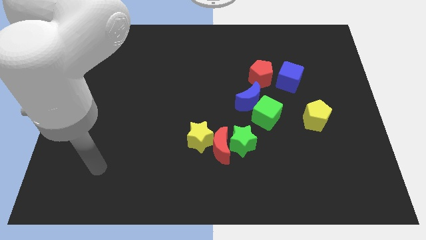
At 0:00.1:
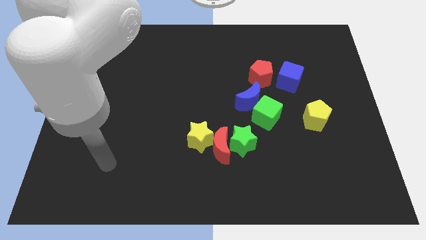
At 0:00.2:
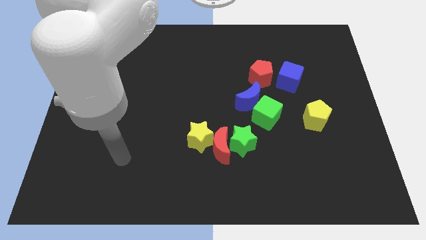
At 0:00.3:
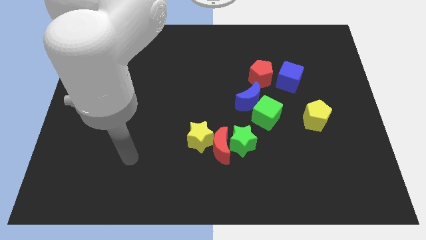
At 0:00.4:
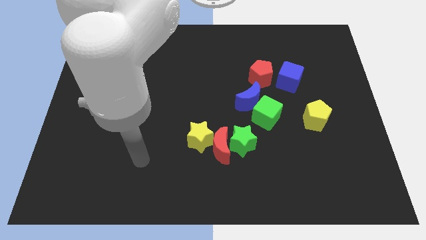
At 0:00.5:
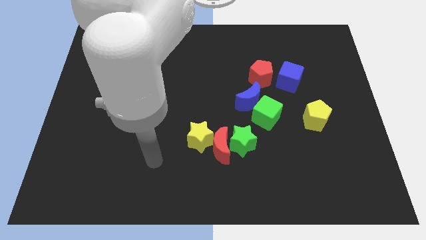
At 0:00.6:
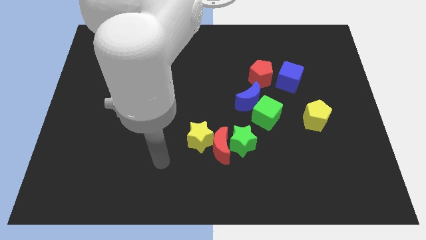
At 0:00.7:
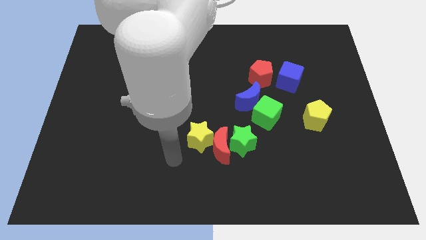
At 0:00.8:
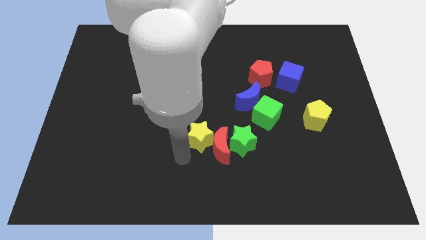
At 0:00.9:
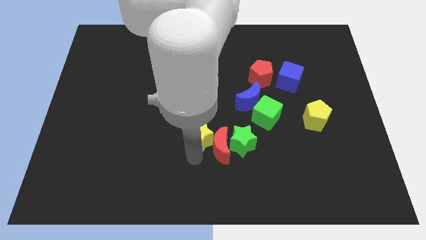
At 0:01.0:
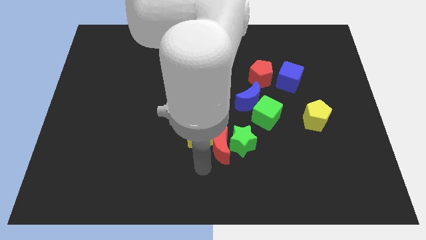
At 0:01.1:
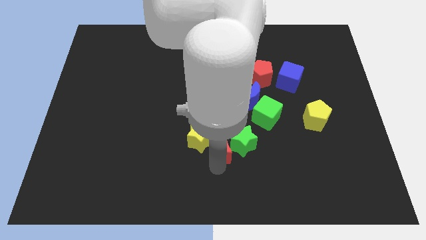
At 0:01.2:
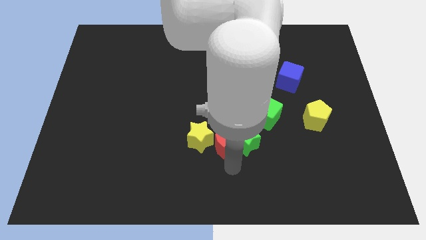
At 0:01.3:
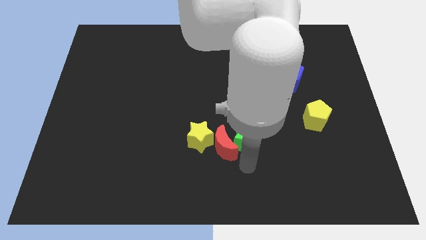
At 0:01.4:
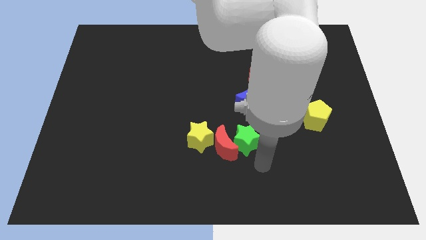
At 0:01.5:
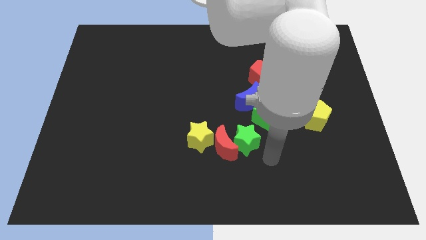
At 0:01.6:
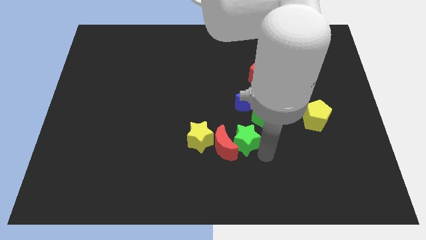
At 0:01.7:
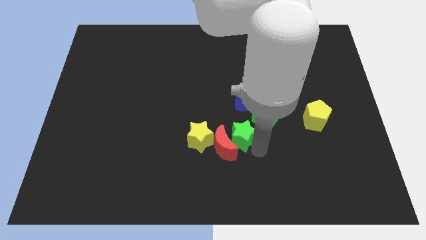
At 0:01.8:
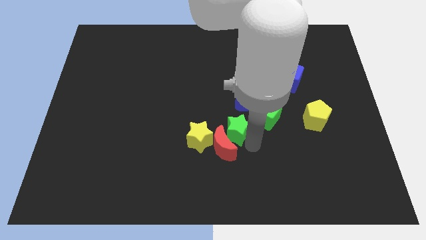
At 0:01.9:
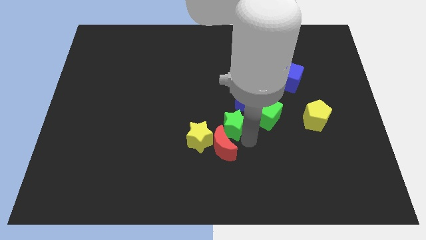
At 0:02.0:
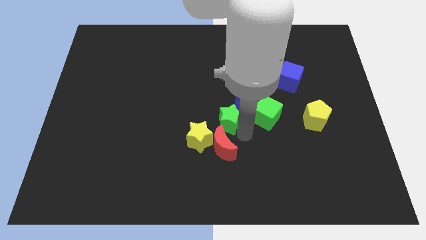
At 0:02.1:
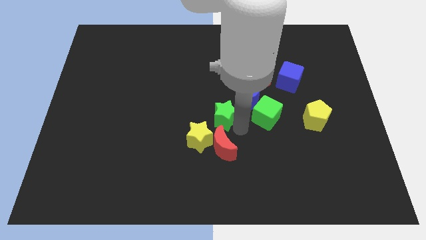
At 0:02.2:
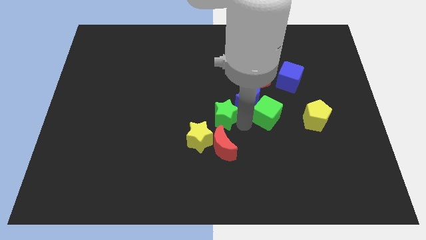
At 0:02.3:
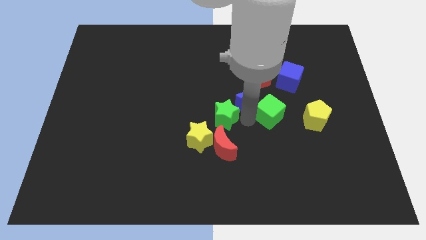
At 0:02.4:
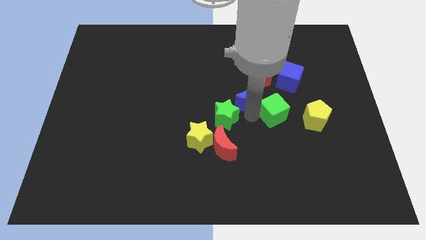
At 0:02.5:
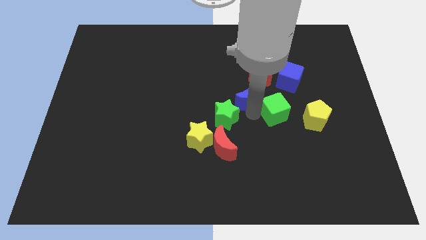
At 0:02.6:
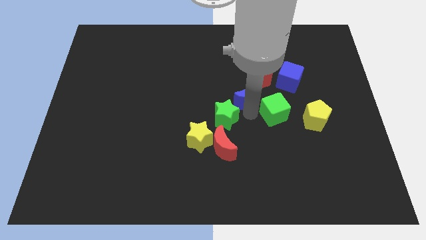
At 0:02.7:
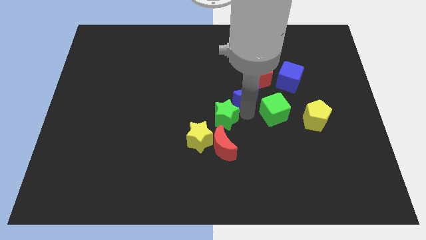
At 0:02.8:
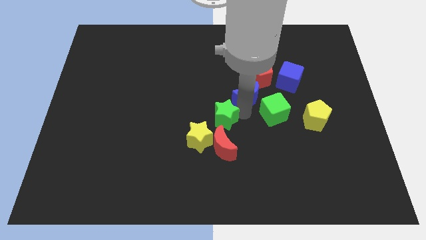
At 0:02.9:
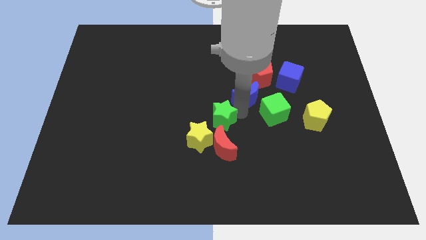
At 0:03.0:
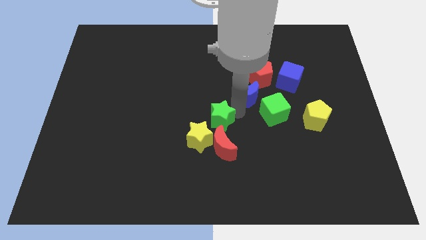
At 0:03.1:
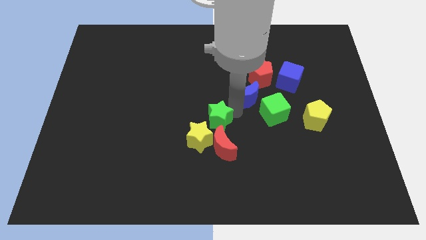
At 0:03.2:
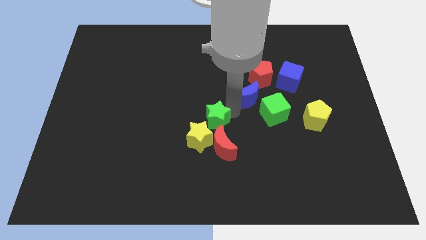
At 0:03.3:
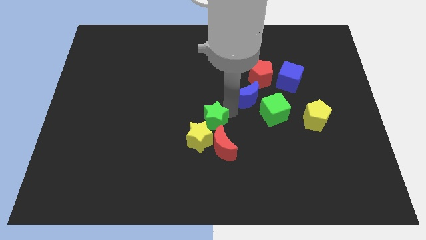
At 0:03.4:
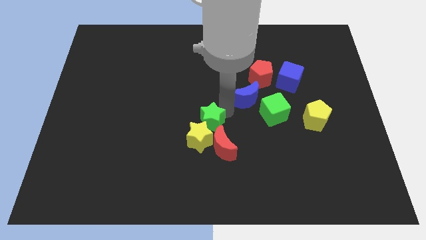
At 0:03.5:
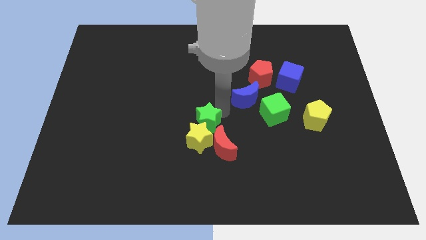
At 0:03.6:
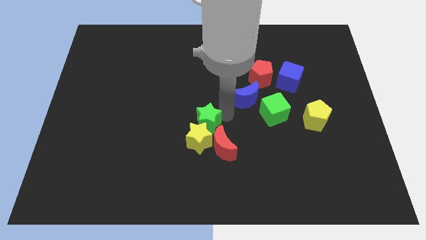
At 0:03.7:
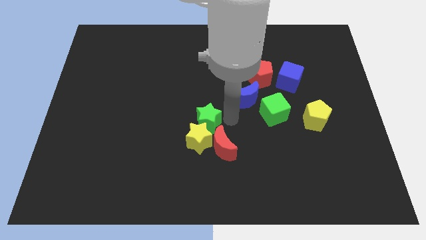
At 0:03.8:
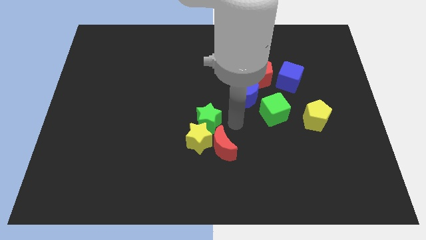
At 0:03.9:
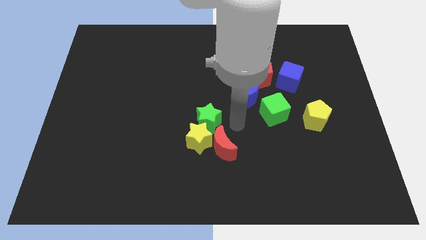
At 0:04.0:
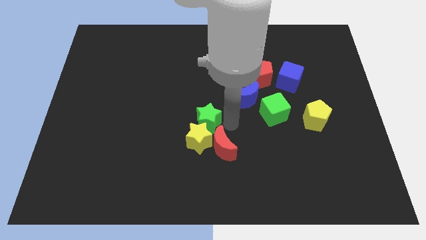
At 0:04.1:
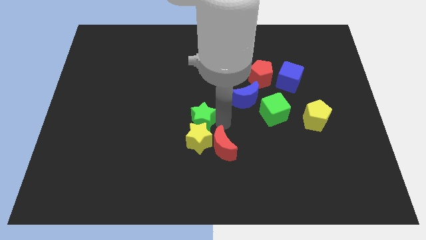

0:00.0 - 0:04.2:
slightly push the green star left

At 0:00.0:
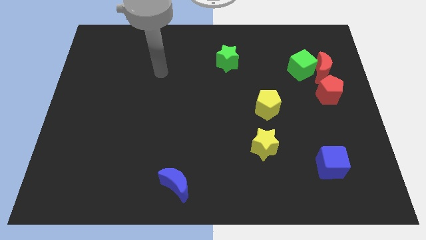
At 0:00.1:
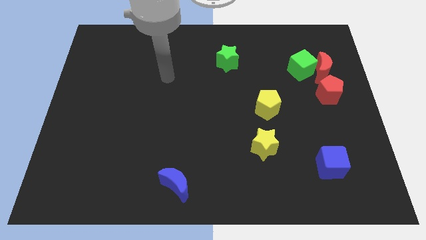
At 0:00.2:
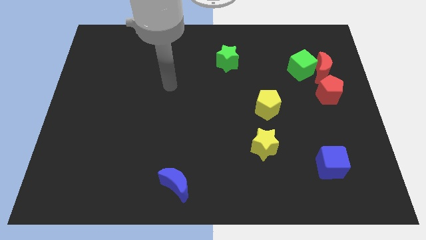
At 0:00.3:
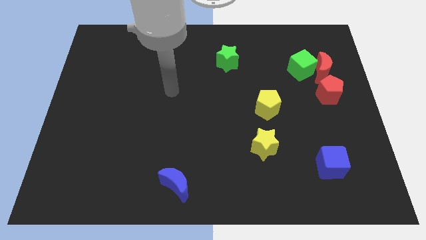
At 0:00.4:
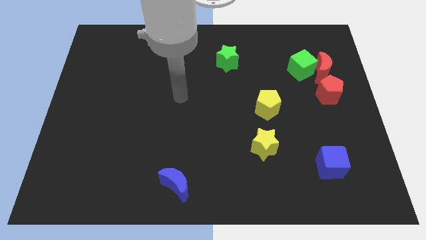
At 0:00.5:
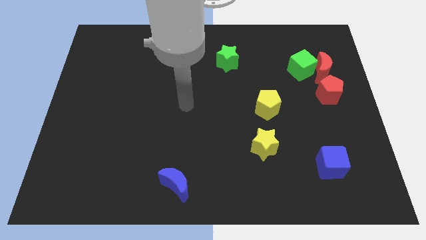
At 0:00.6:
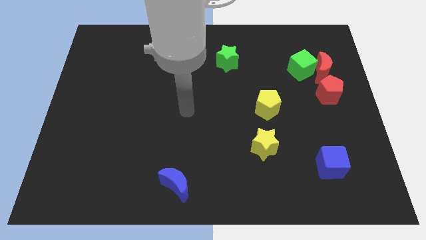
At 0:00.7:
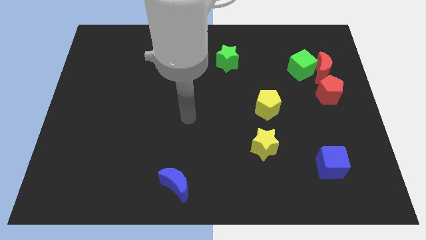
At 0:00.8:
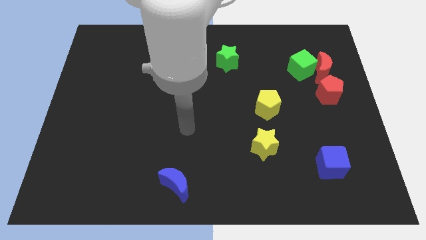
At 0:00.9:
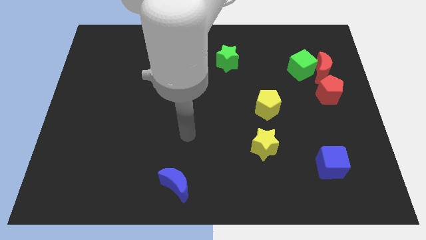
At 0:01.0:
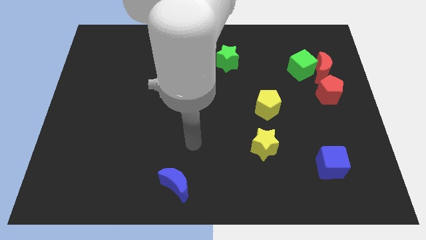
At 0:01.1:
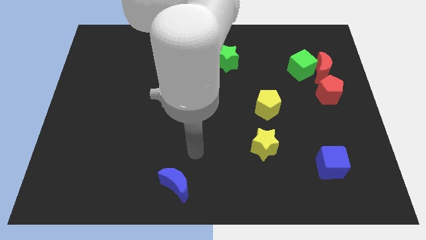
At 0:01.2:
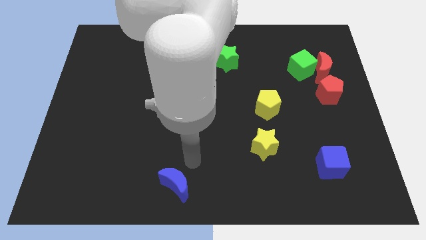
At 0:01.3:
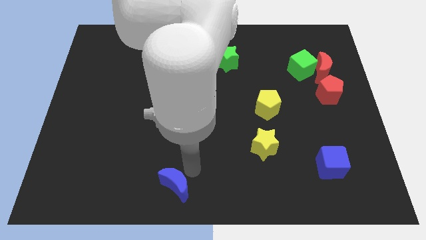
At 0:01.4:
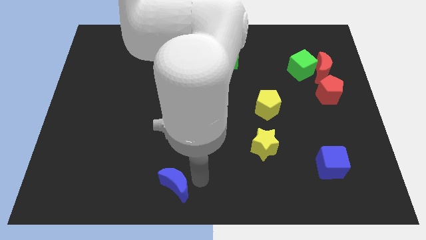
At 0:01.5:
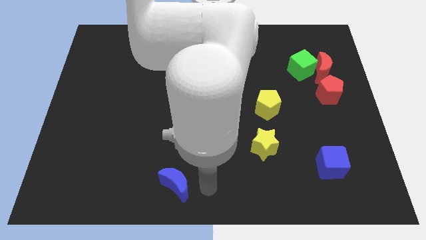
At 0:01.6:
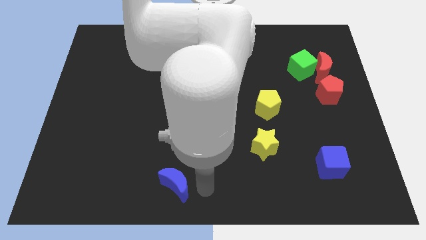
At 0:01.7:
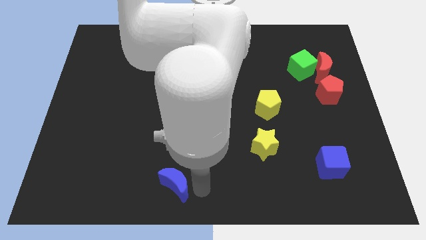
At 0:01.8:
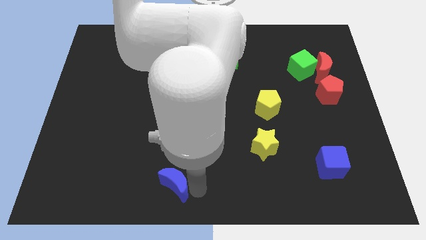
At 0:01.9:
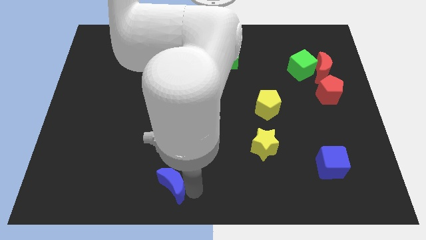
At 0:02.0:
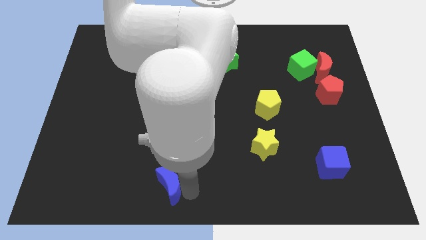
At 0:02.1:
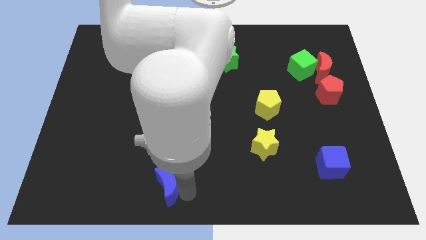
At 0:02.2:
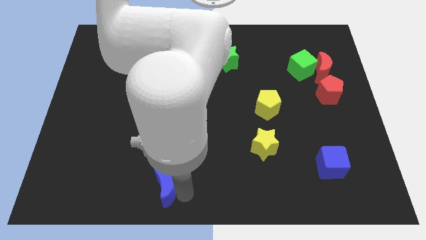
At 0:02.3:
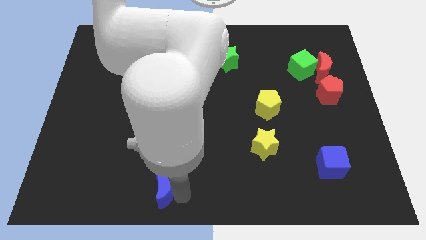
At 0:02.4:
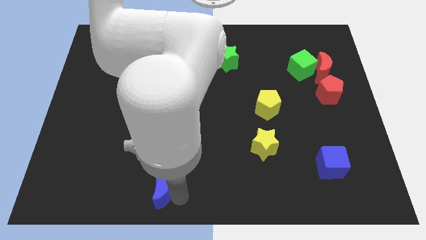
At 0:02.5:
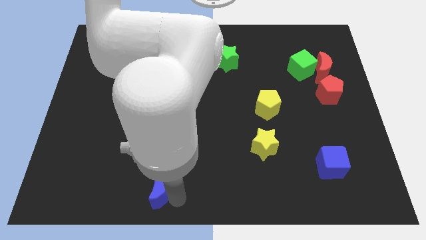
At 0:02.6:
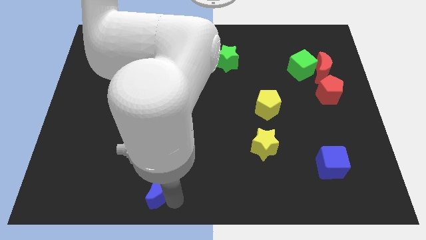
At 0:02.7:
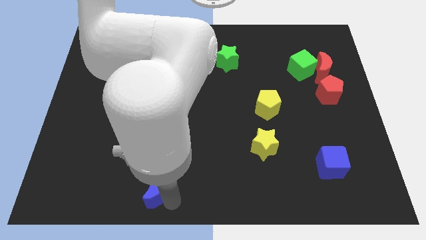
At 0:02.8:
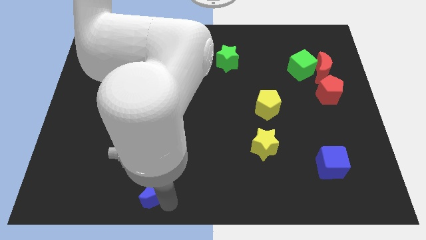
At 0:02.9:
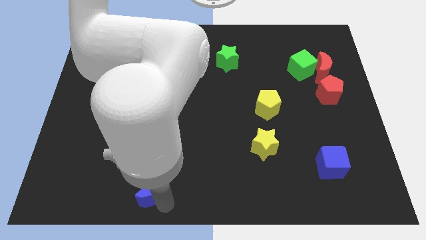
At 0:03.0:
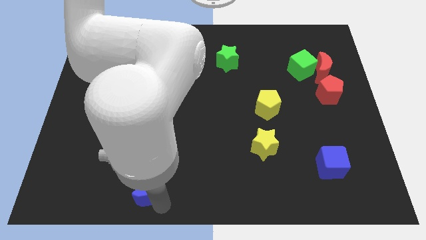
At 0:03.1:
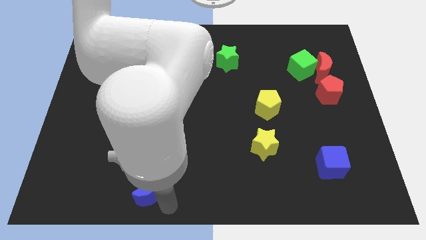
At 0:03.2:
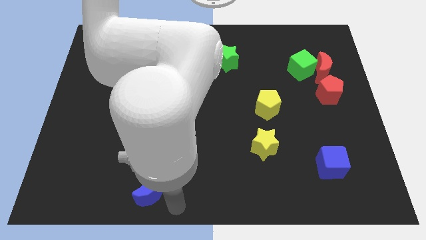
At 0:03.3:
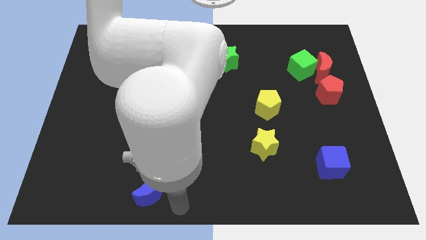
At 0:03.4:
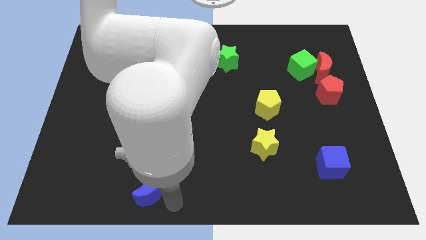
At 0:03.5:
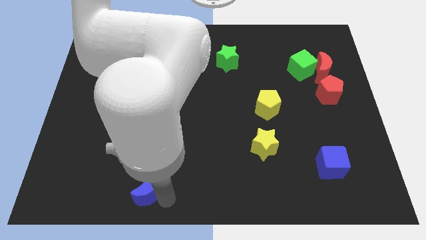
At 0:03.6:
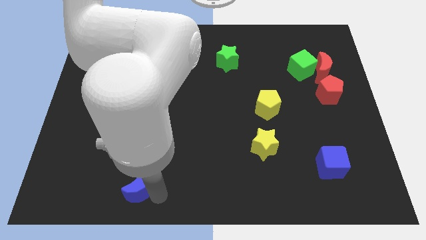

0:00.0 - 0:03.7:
push the blue moon to the left a bit

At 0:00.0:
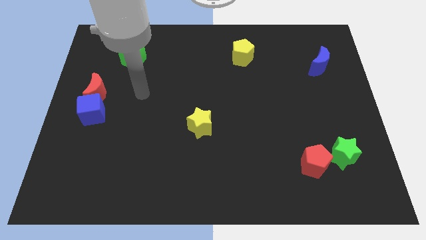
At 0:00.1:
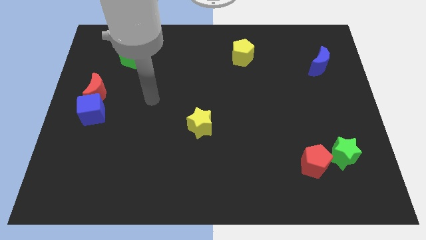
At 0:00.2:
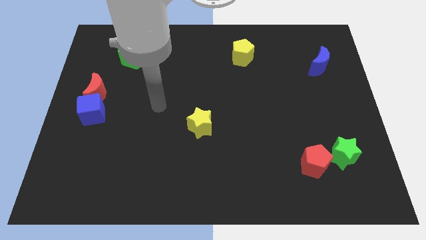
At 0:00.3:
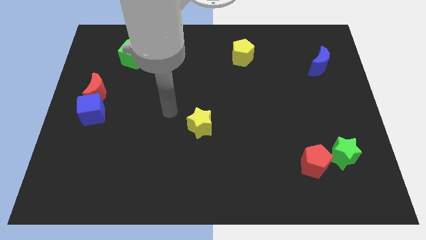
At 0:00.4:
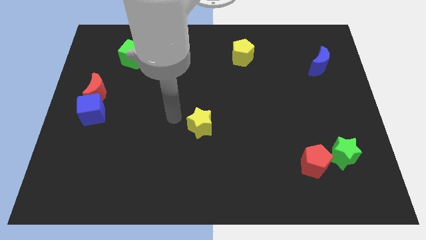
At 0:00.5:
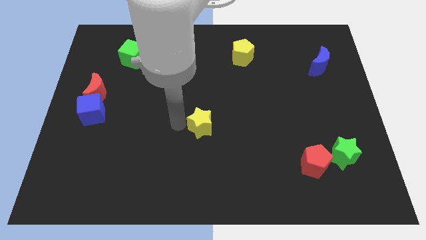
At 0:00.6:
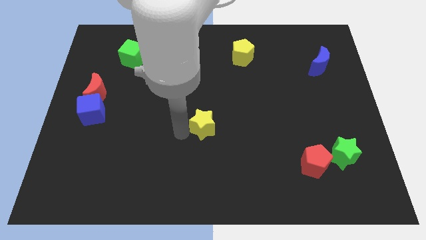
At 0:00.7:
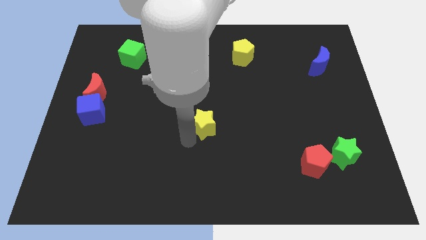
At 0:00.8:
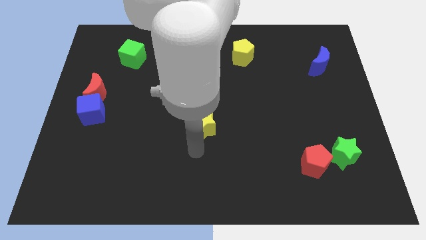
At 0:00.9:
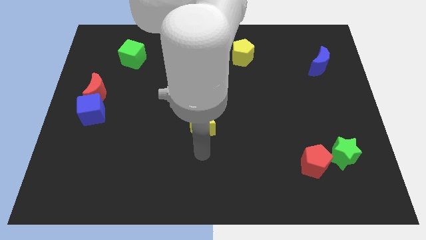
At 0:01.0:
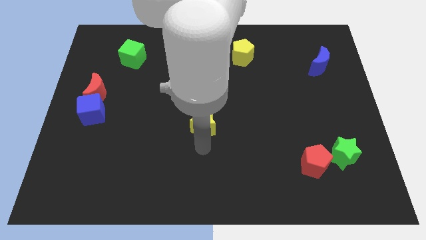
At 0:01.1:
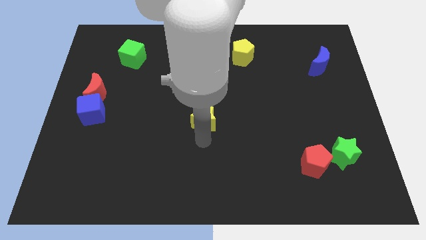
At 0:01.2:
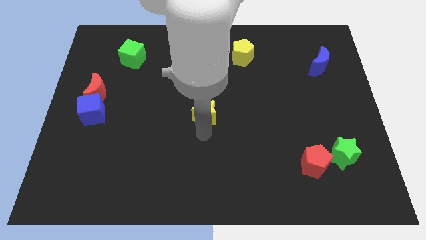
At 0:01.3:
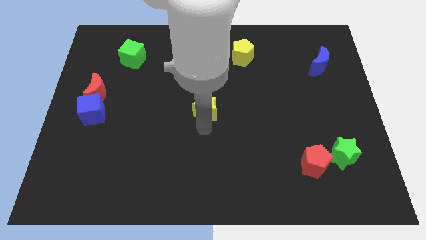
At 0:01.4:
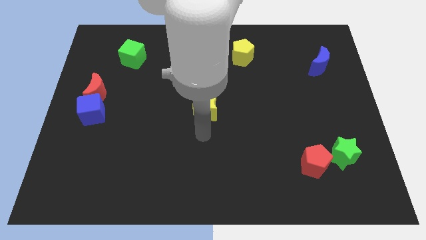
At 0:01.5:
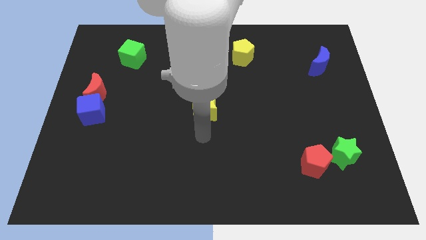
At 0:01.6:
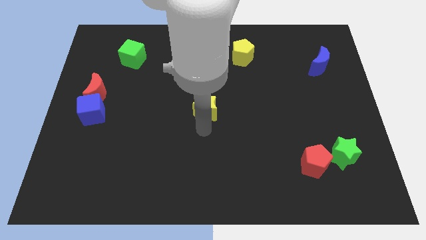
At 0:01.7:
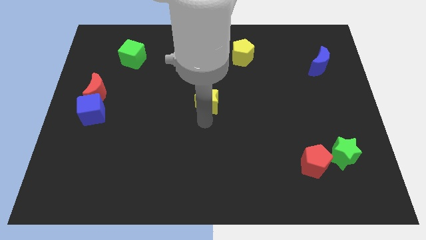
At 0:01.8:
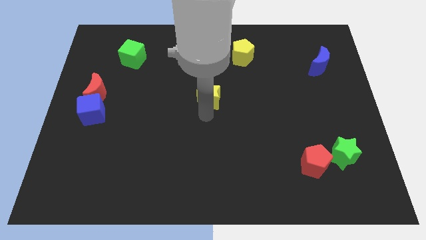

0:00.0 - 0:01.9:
slightly push the yellow star up
